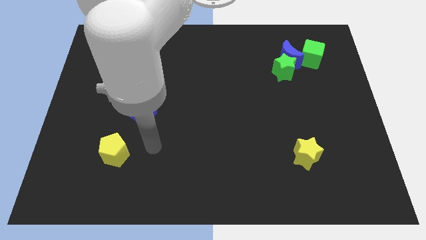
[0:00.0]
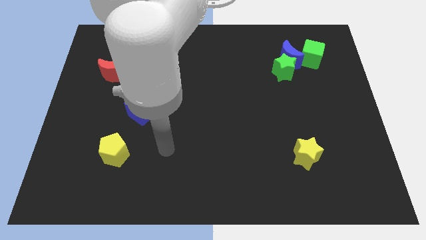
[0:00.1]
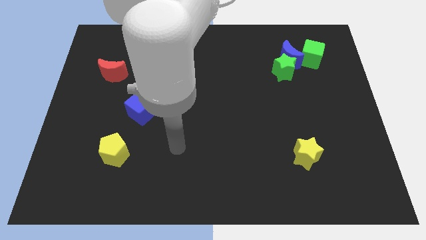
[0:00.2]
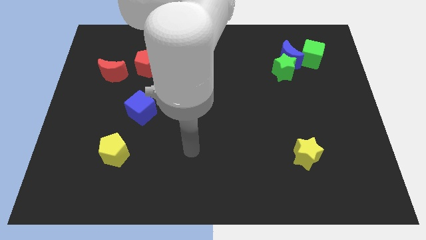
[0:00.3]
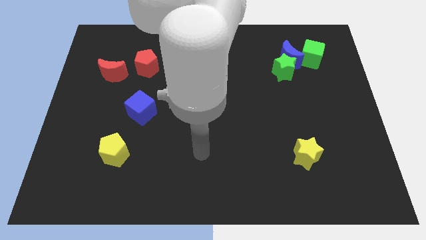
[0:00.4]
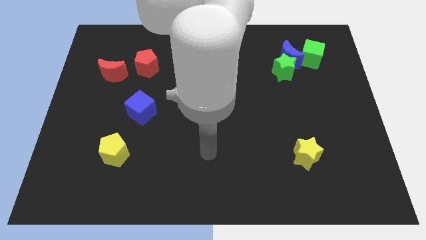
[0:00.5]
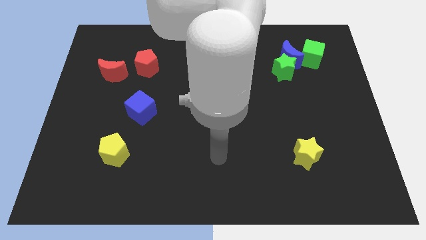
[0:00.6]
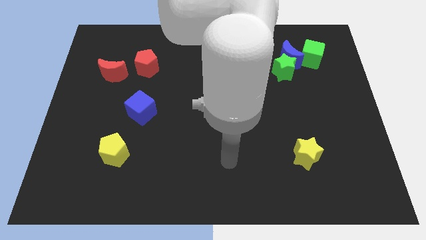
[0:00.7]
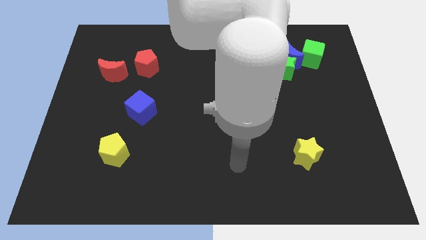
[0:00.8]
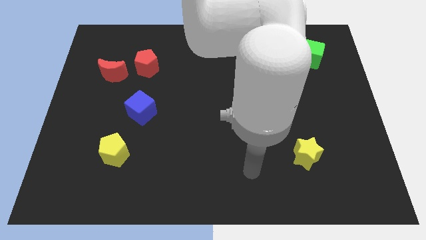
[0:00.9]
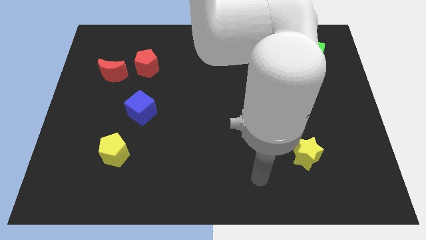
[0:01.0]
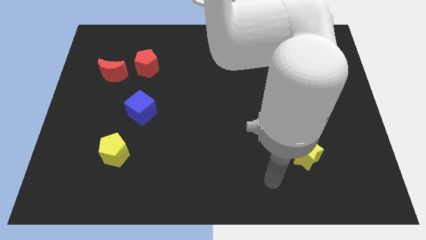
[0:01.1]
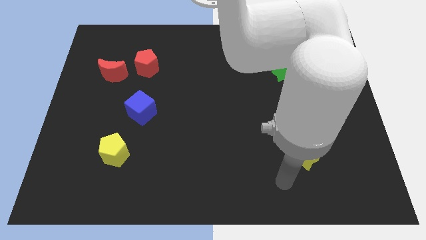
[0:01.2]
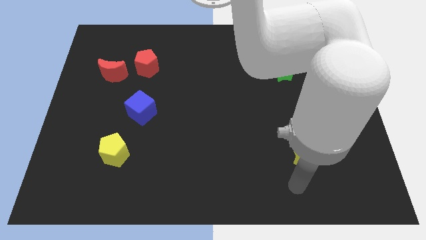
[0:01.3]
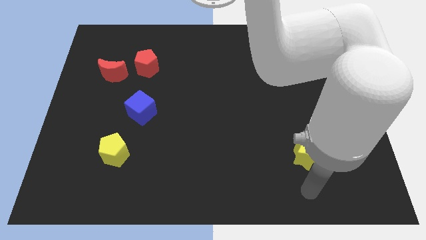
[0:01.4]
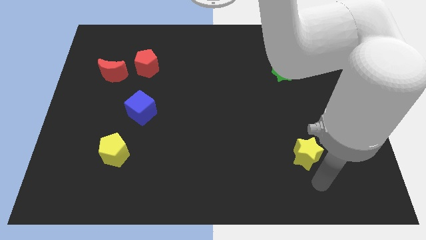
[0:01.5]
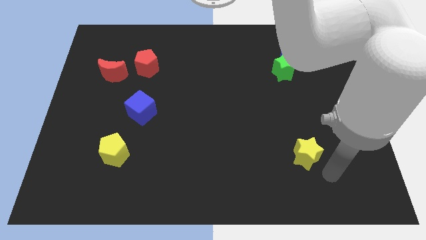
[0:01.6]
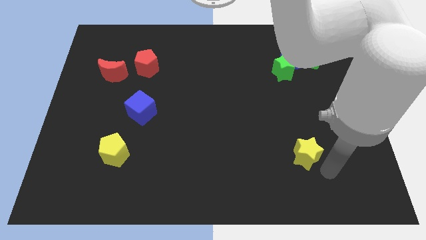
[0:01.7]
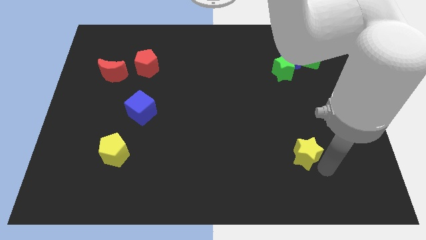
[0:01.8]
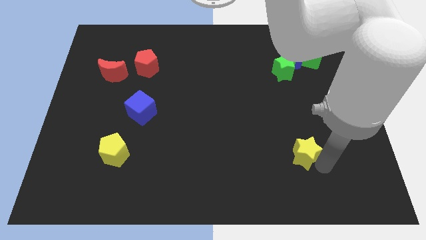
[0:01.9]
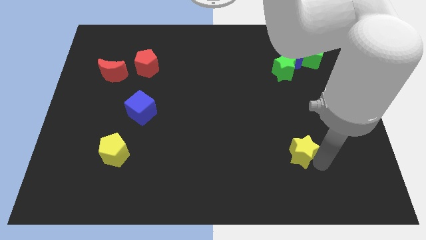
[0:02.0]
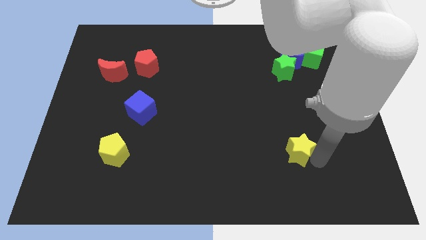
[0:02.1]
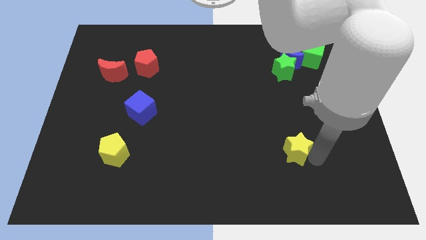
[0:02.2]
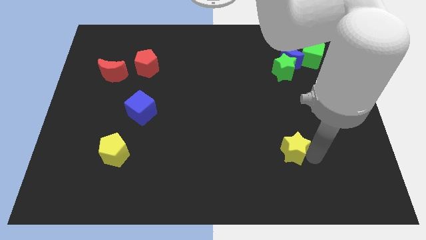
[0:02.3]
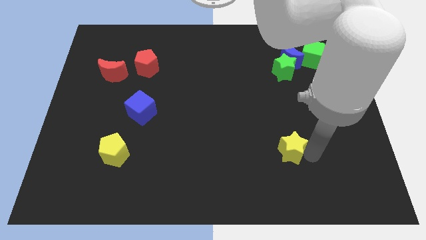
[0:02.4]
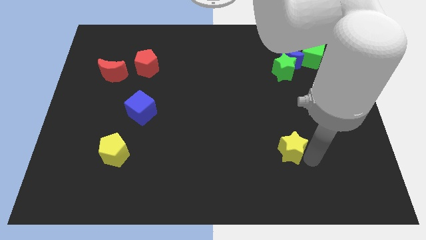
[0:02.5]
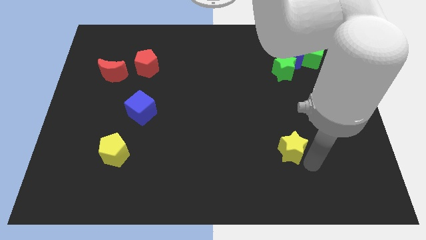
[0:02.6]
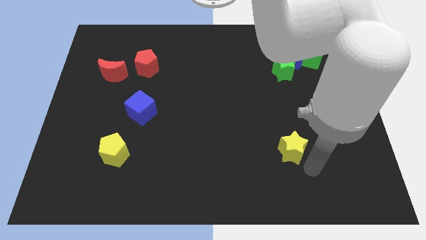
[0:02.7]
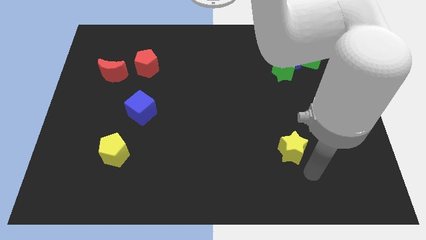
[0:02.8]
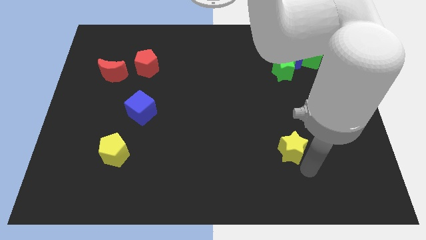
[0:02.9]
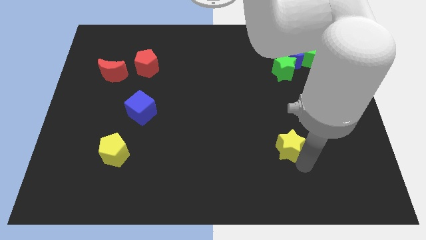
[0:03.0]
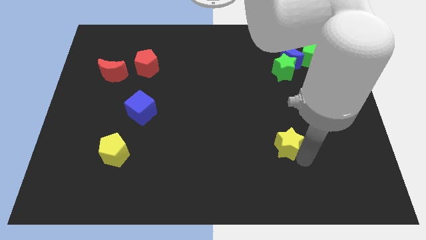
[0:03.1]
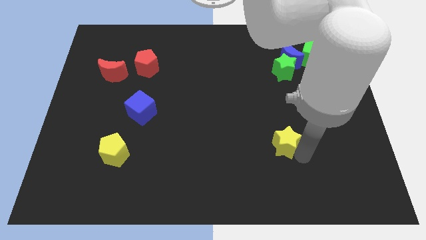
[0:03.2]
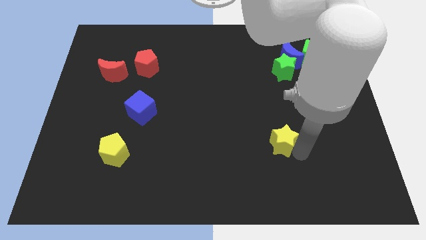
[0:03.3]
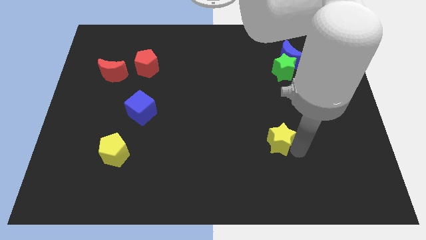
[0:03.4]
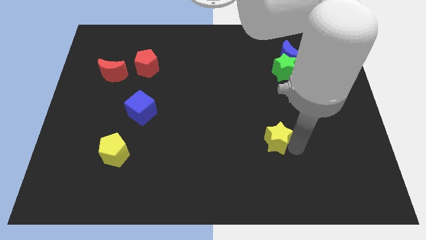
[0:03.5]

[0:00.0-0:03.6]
slightly push the yellow star upwards and left diagonally

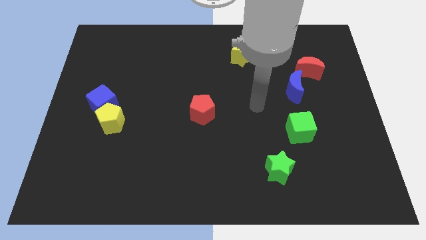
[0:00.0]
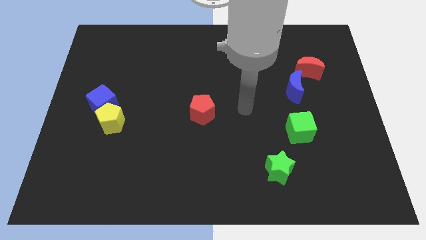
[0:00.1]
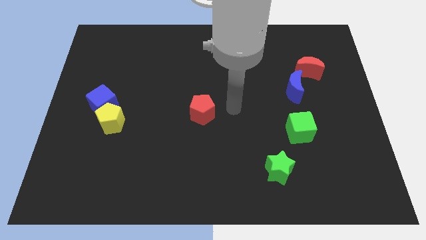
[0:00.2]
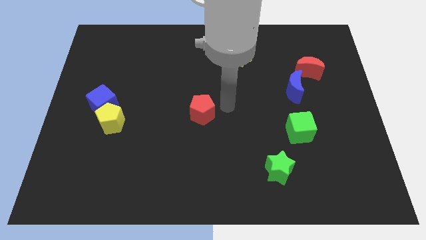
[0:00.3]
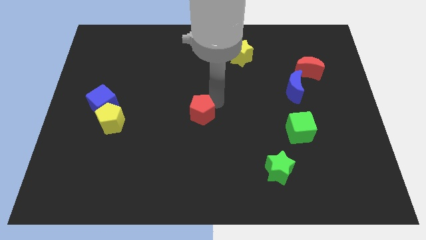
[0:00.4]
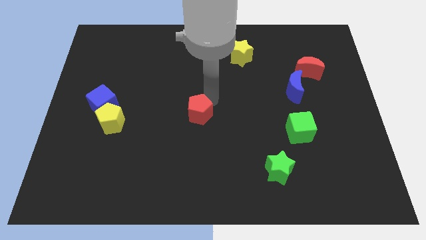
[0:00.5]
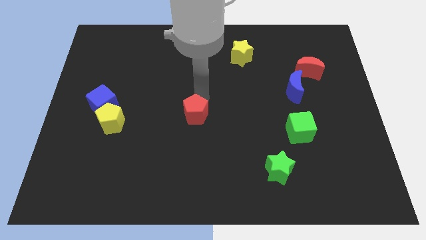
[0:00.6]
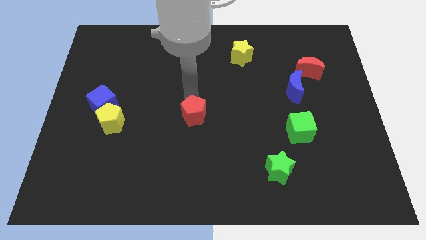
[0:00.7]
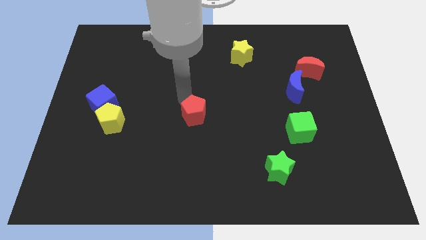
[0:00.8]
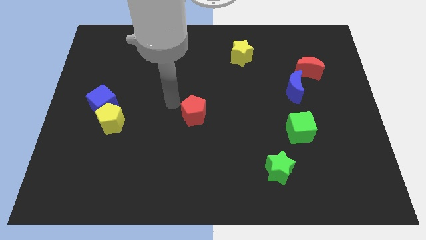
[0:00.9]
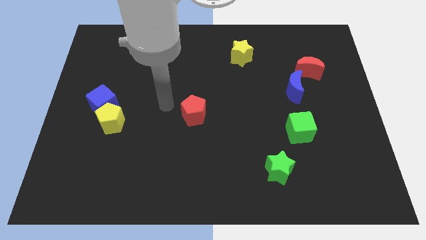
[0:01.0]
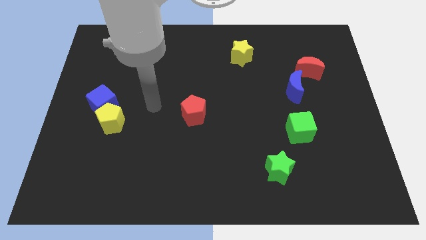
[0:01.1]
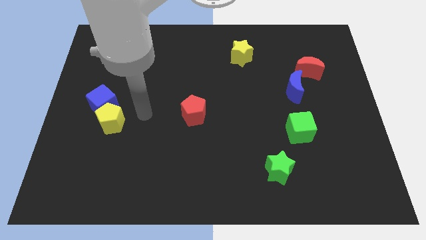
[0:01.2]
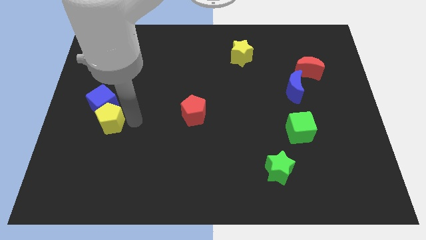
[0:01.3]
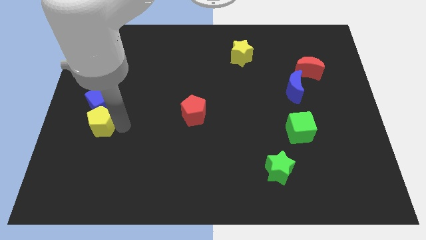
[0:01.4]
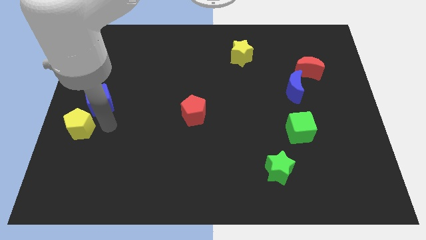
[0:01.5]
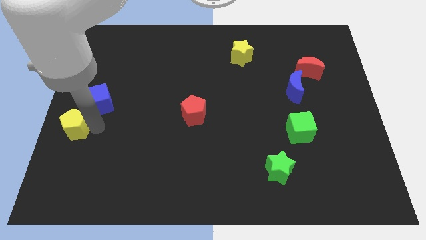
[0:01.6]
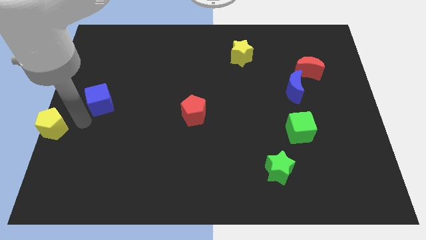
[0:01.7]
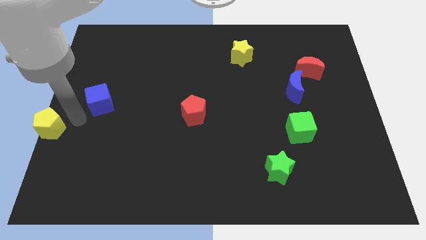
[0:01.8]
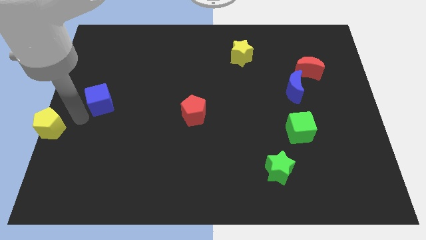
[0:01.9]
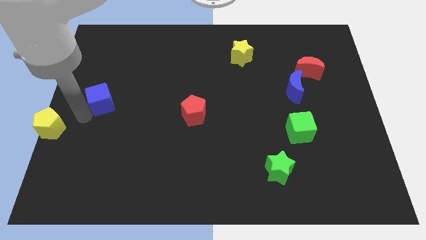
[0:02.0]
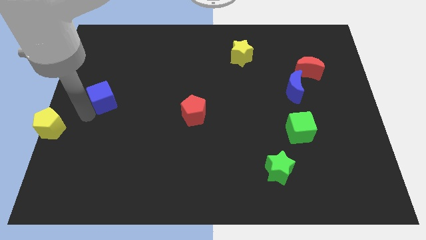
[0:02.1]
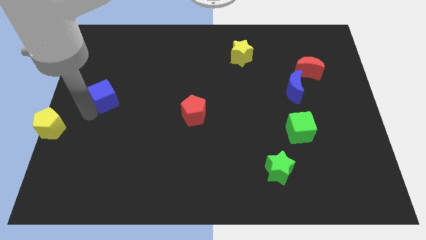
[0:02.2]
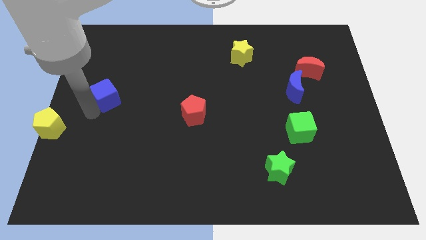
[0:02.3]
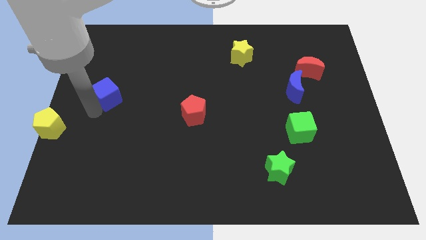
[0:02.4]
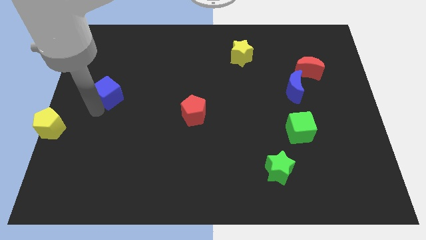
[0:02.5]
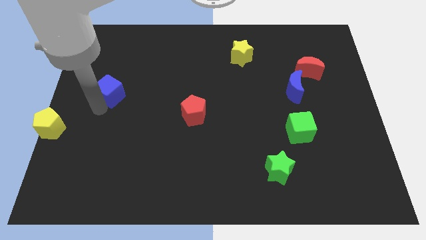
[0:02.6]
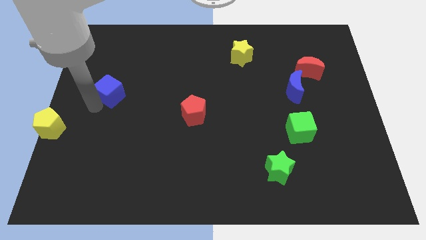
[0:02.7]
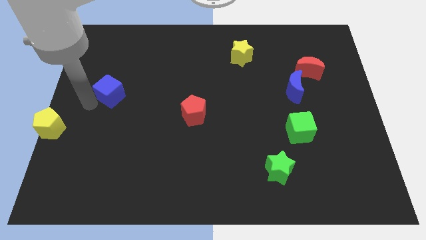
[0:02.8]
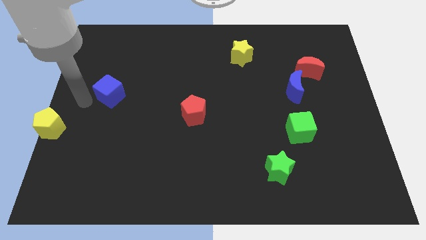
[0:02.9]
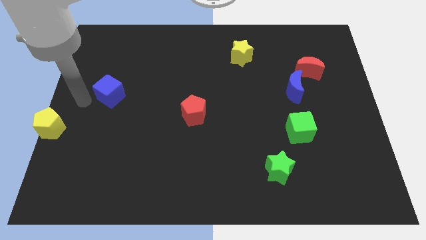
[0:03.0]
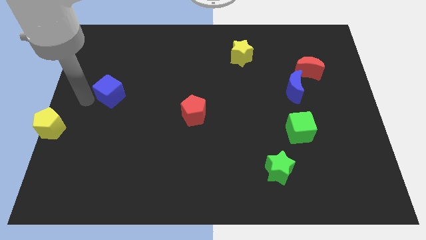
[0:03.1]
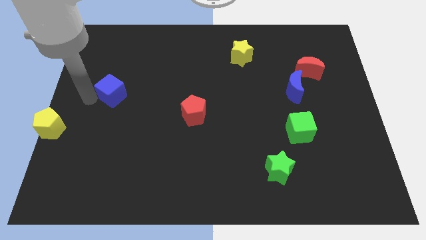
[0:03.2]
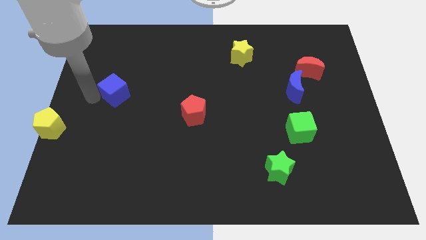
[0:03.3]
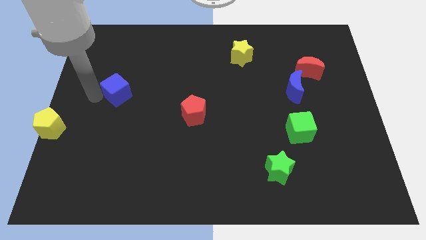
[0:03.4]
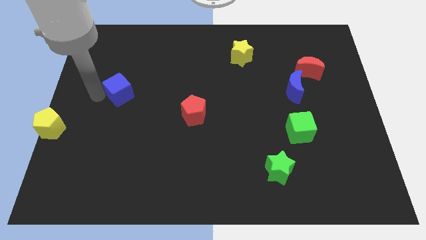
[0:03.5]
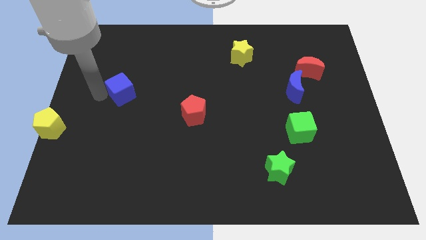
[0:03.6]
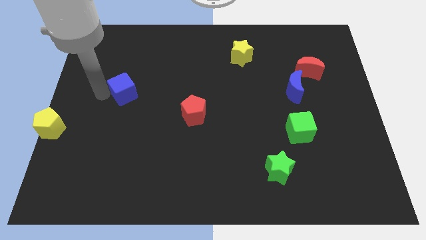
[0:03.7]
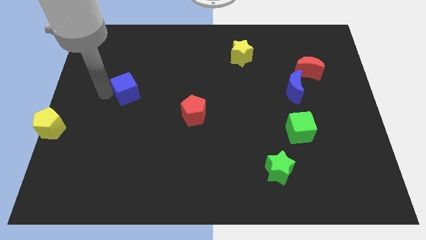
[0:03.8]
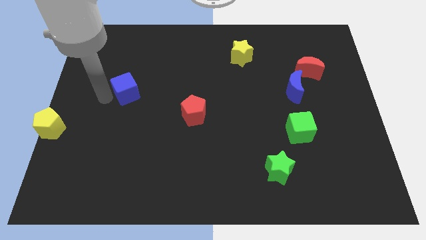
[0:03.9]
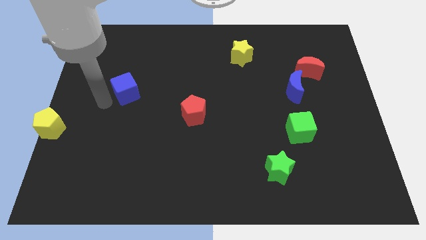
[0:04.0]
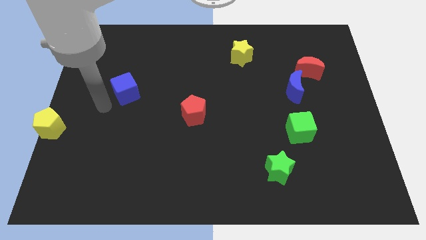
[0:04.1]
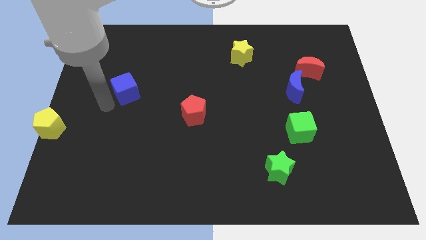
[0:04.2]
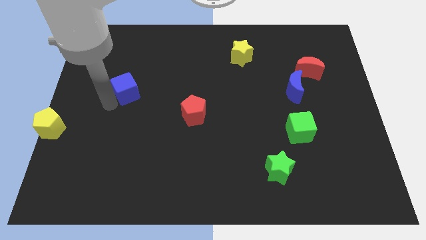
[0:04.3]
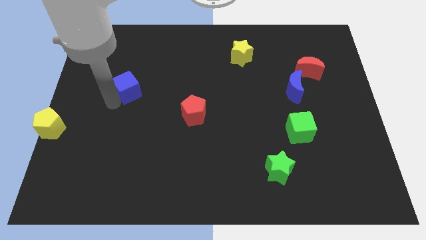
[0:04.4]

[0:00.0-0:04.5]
push the blue cube a bit diagonally upwards and to the right

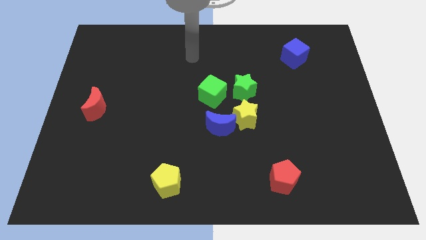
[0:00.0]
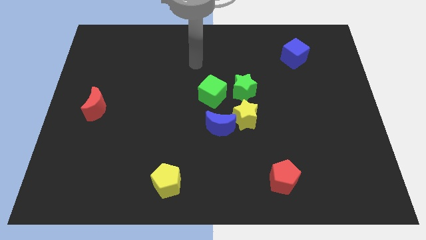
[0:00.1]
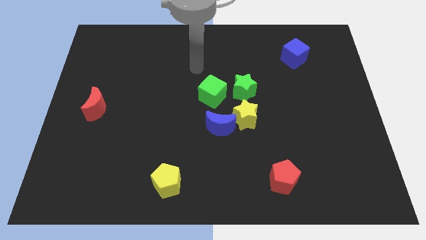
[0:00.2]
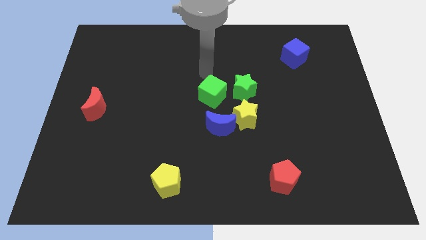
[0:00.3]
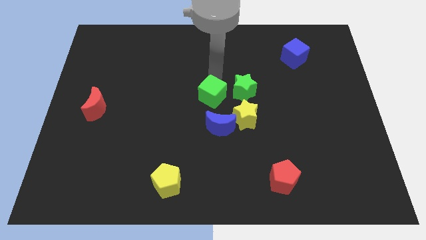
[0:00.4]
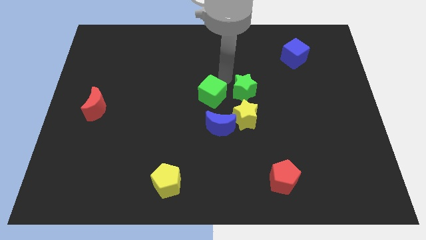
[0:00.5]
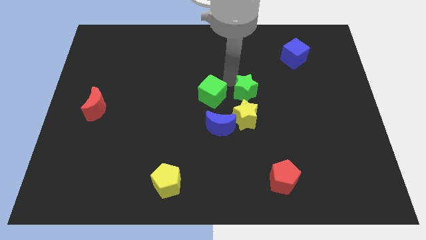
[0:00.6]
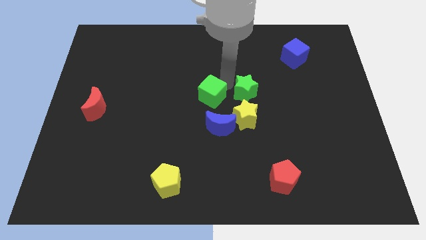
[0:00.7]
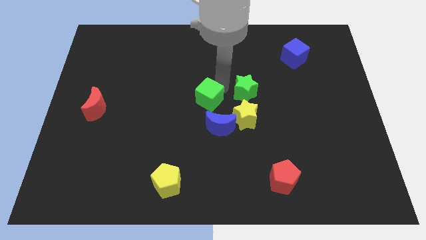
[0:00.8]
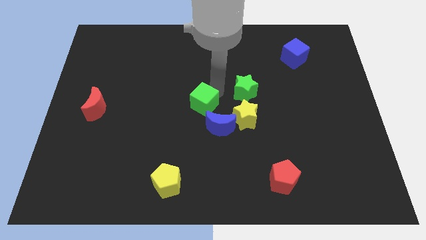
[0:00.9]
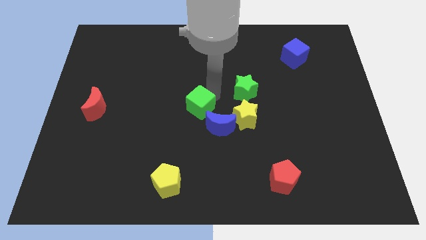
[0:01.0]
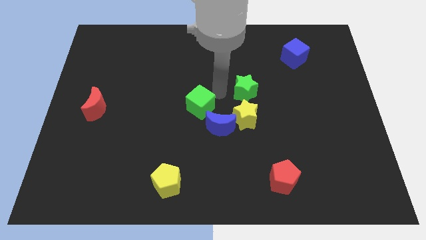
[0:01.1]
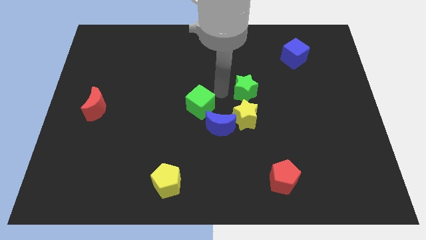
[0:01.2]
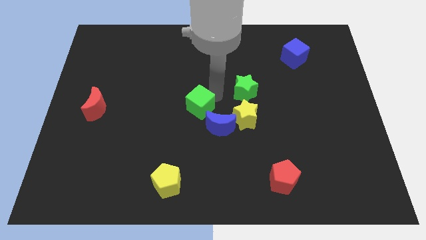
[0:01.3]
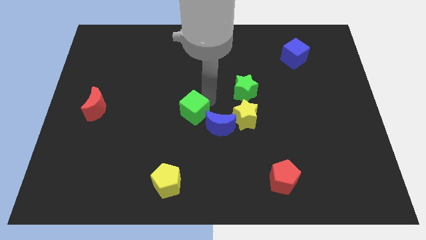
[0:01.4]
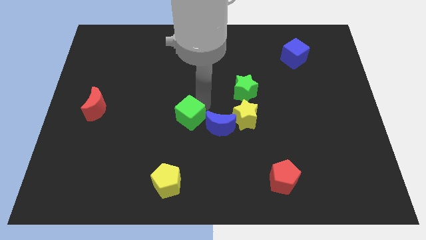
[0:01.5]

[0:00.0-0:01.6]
move the green cube somewhat diagonally downwards and left
